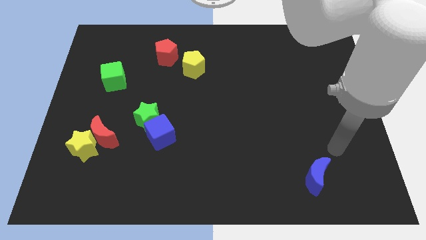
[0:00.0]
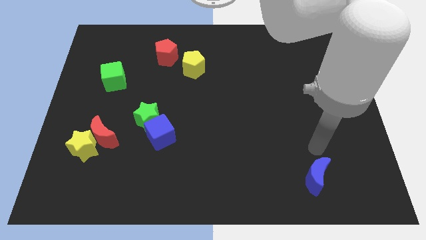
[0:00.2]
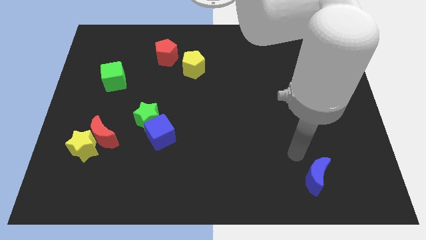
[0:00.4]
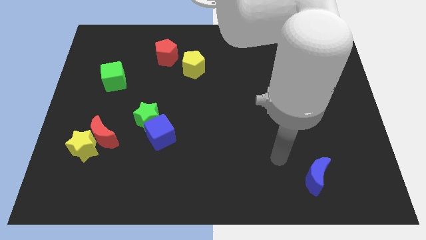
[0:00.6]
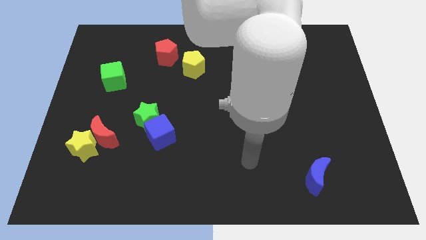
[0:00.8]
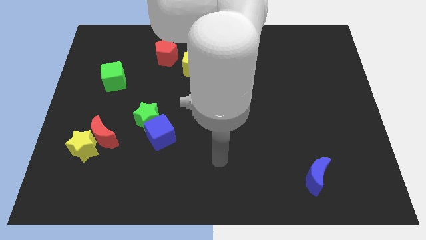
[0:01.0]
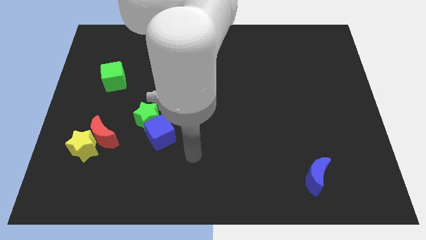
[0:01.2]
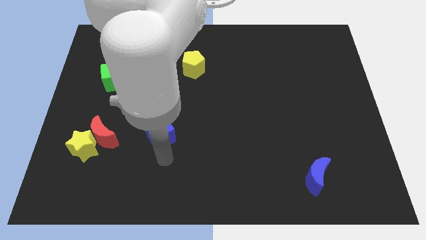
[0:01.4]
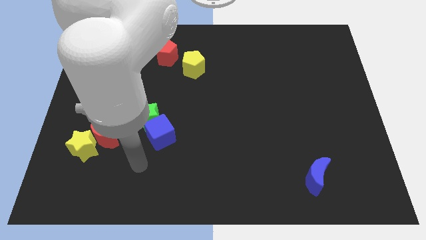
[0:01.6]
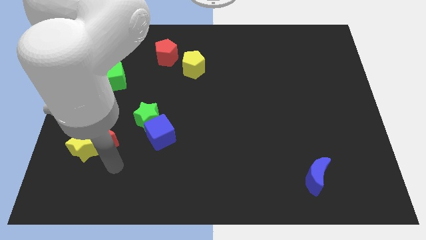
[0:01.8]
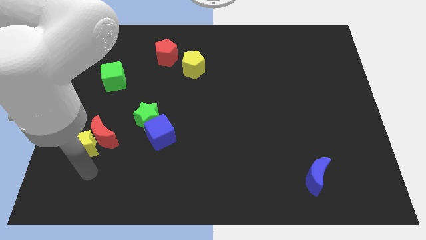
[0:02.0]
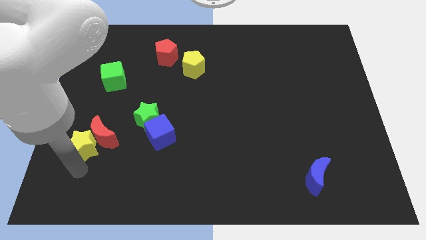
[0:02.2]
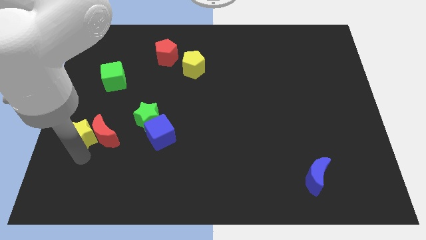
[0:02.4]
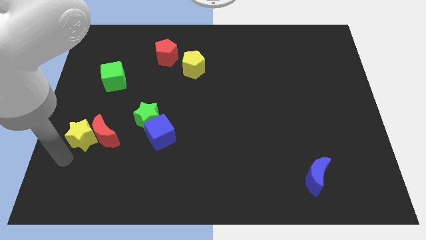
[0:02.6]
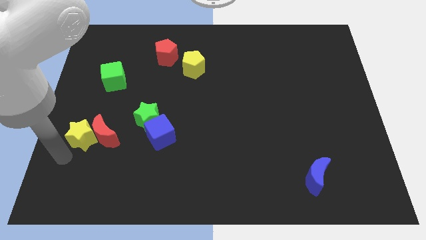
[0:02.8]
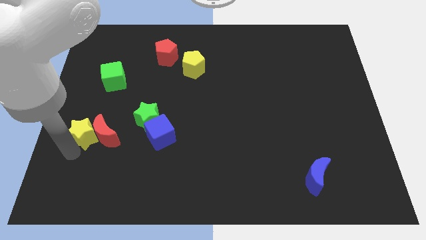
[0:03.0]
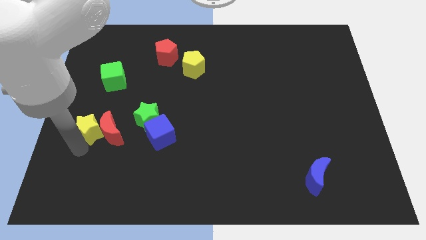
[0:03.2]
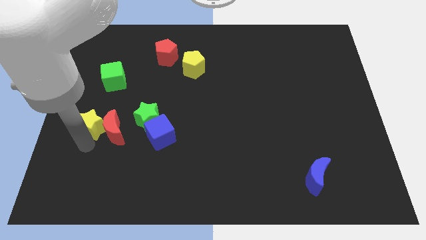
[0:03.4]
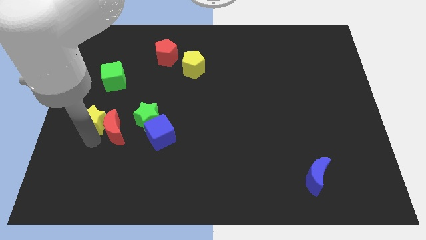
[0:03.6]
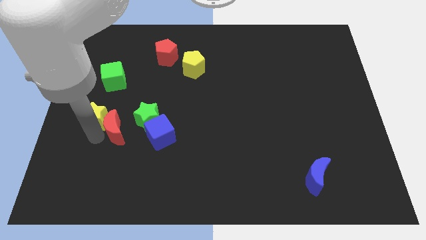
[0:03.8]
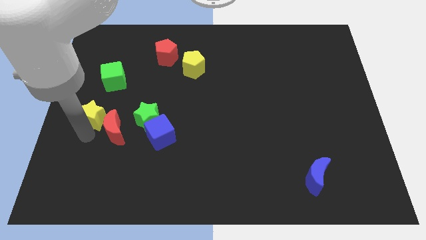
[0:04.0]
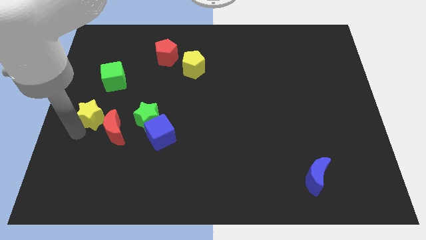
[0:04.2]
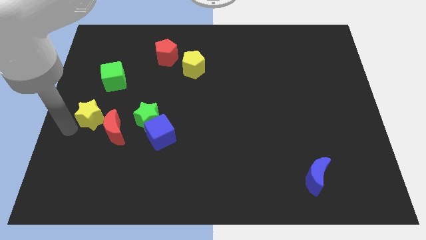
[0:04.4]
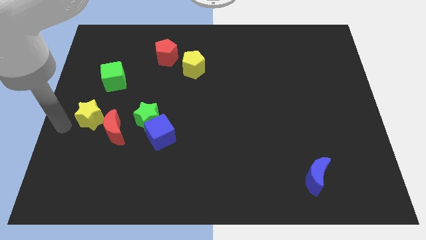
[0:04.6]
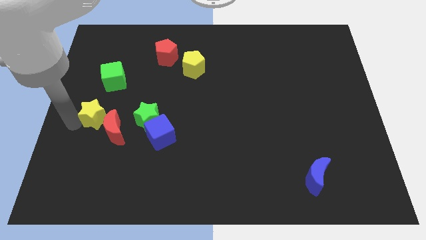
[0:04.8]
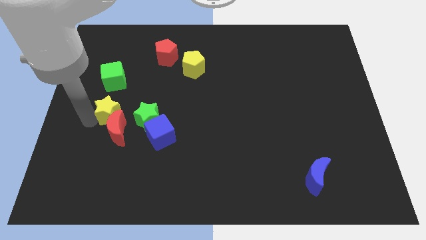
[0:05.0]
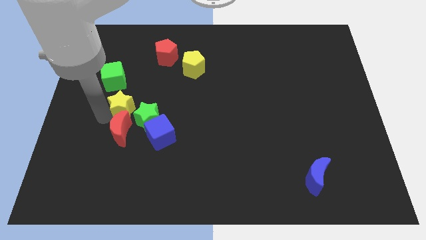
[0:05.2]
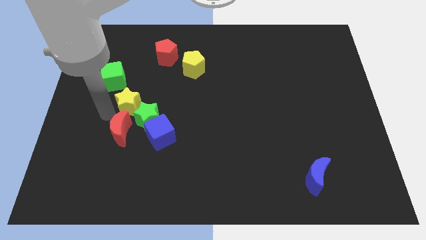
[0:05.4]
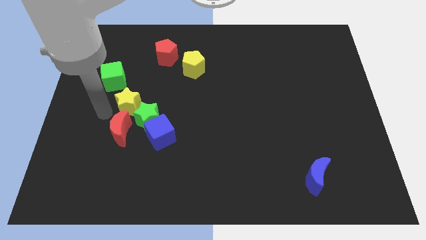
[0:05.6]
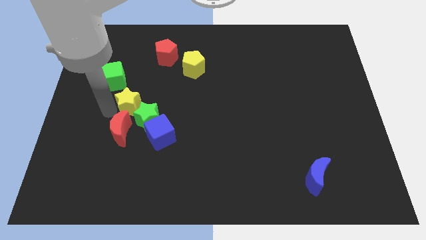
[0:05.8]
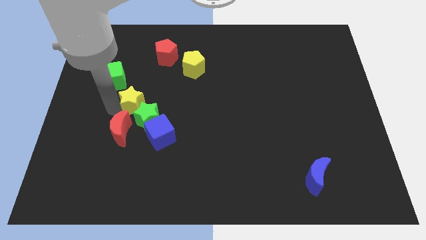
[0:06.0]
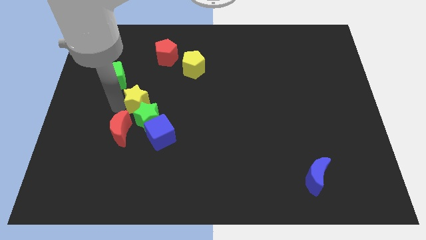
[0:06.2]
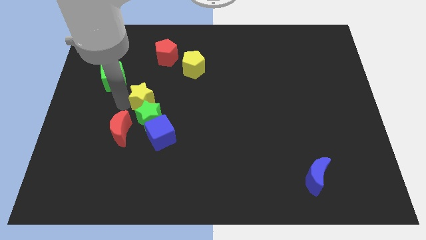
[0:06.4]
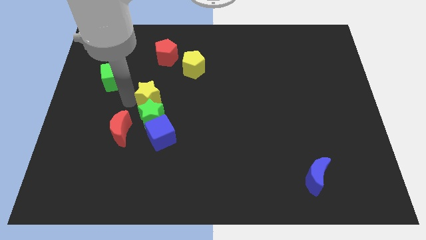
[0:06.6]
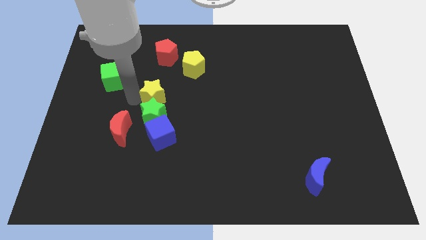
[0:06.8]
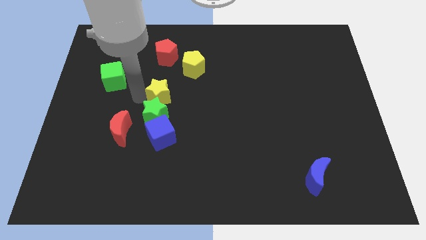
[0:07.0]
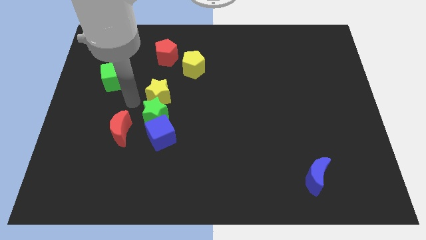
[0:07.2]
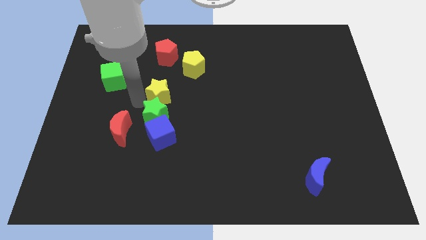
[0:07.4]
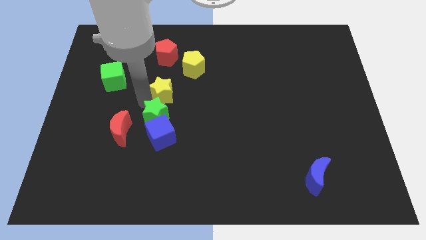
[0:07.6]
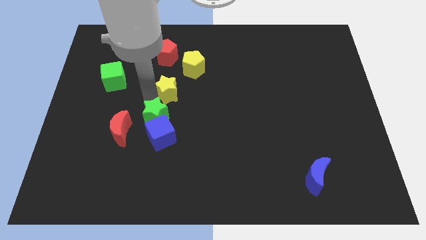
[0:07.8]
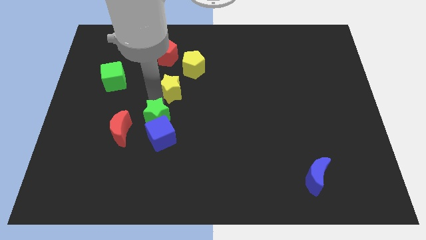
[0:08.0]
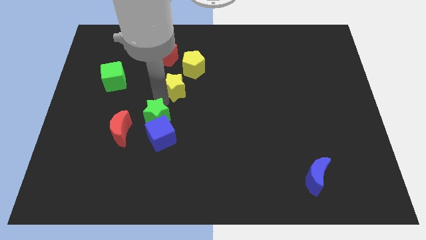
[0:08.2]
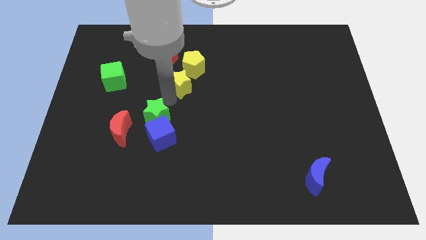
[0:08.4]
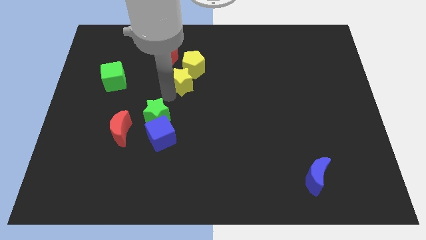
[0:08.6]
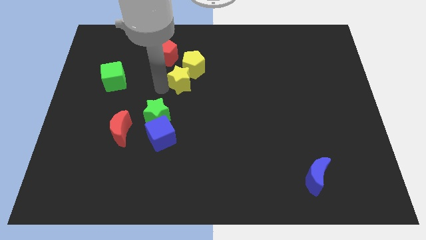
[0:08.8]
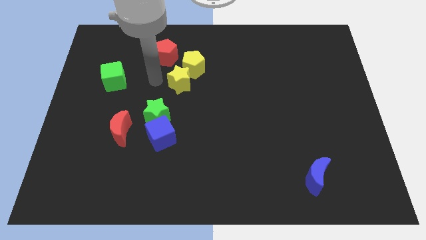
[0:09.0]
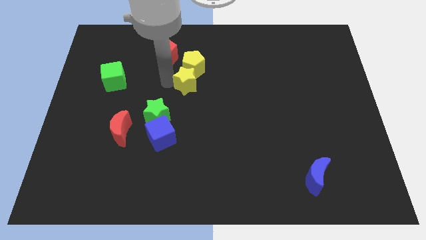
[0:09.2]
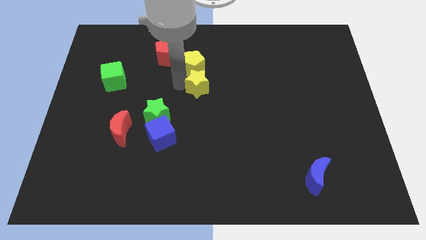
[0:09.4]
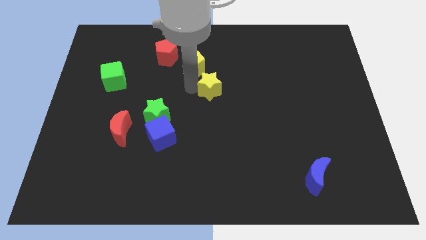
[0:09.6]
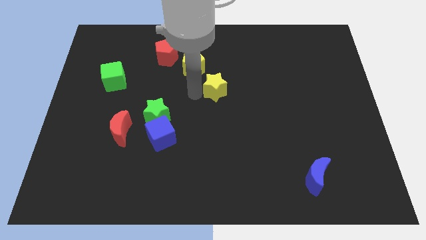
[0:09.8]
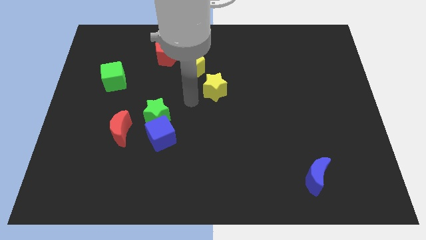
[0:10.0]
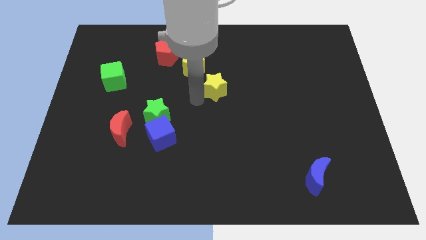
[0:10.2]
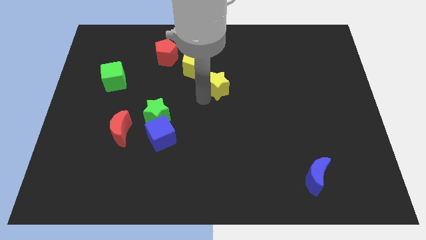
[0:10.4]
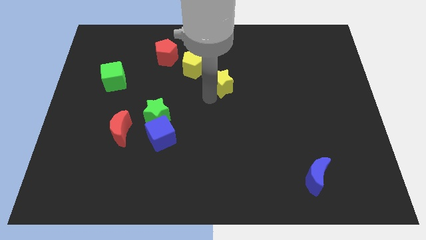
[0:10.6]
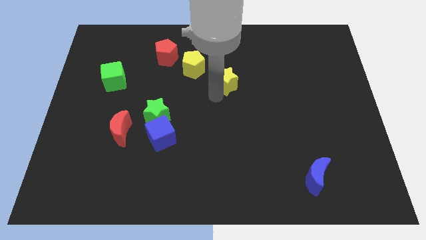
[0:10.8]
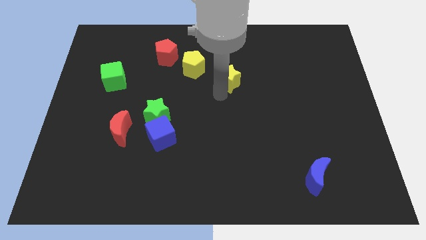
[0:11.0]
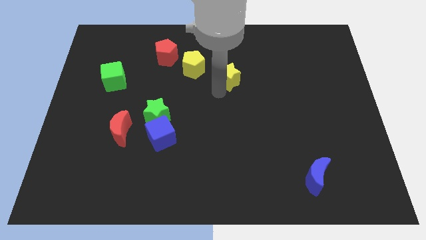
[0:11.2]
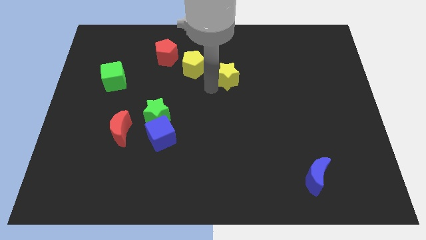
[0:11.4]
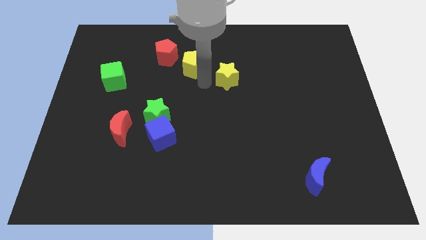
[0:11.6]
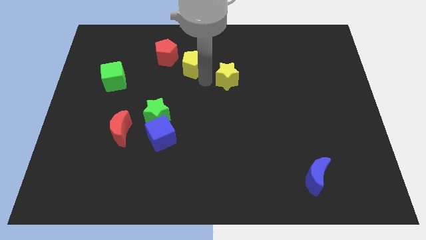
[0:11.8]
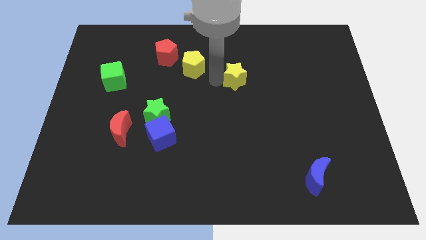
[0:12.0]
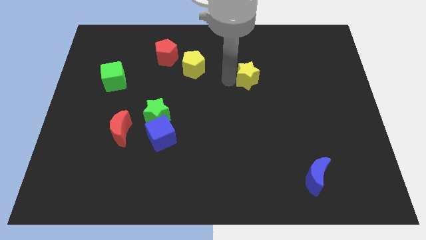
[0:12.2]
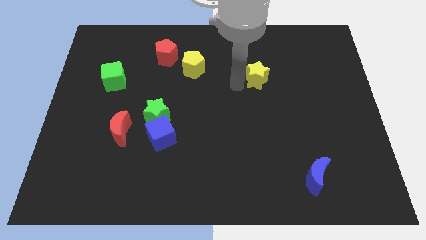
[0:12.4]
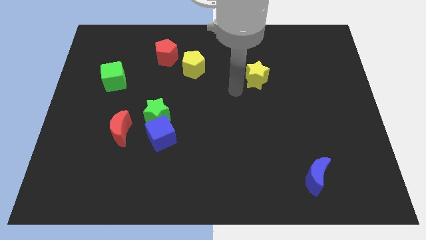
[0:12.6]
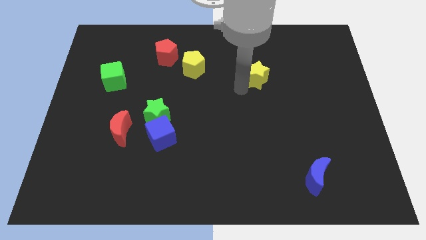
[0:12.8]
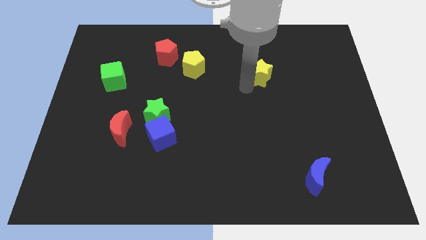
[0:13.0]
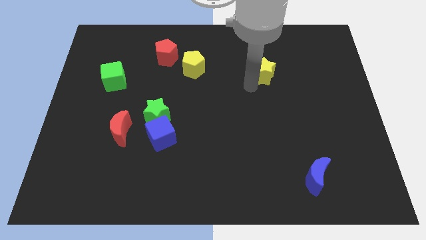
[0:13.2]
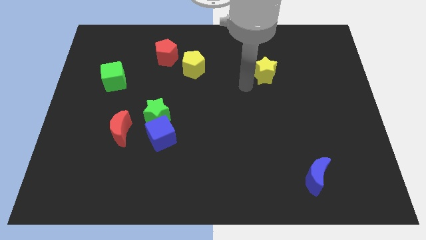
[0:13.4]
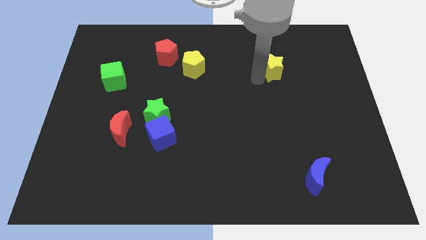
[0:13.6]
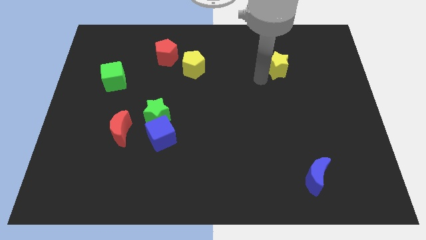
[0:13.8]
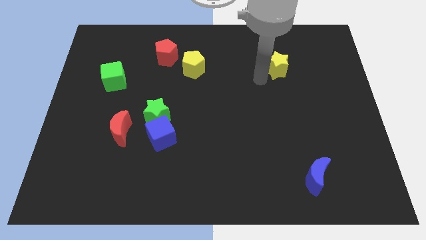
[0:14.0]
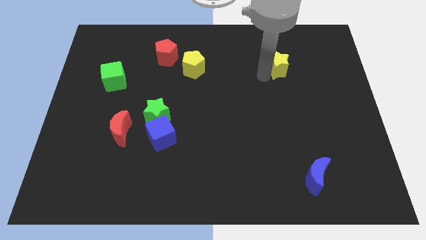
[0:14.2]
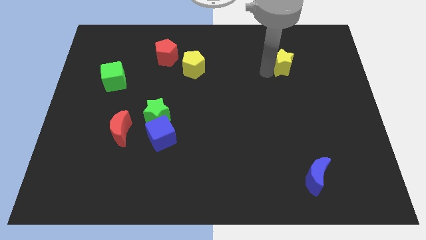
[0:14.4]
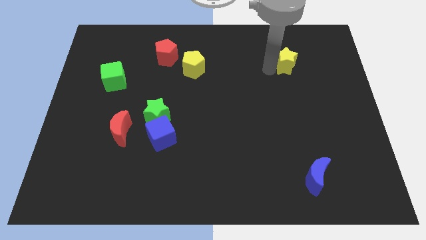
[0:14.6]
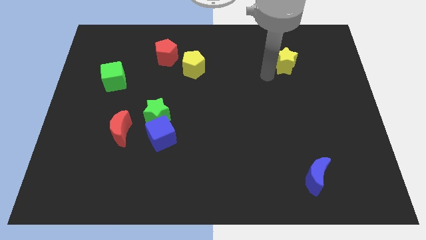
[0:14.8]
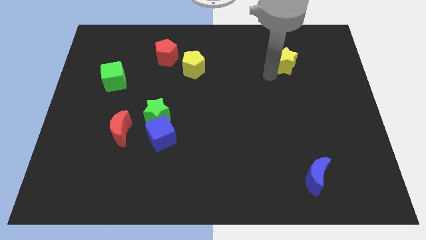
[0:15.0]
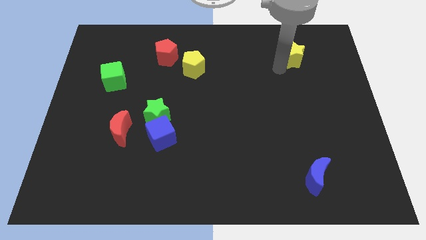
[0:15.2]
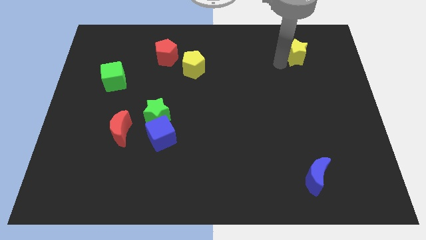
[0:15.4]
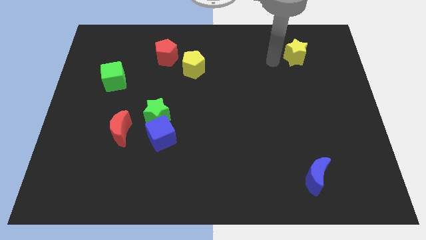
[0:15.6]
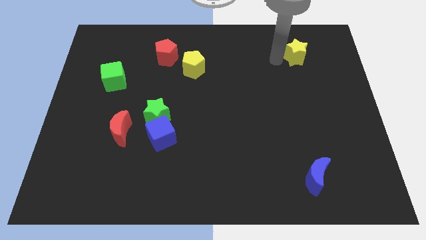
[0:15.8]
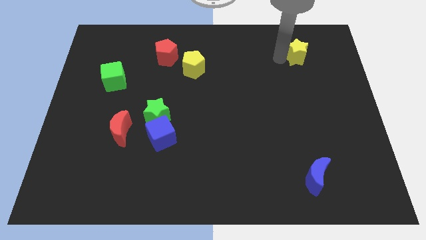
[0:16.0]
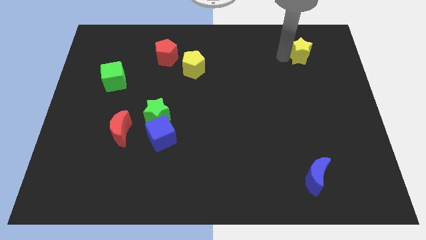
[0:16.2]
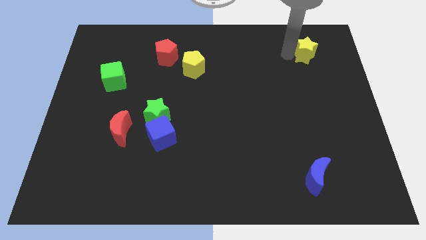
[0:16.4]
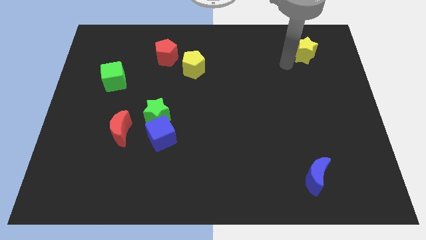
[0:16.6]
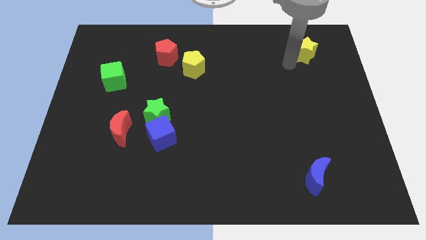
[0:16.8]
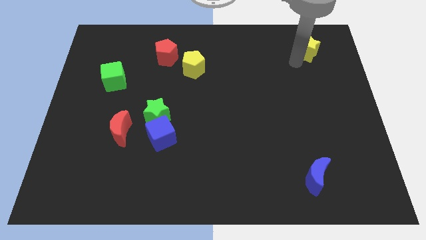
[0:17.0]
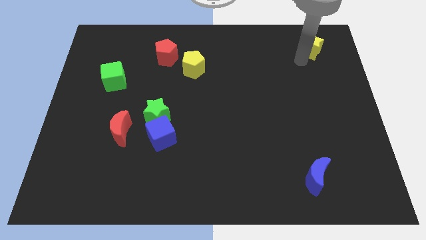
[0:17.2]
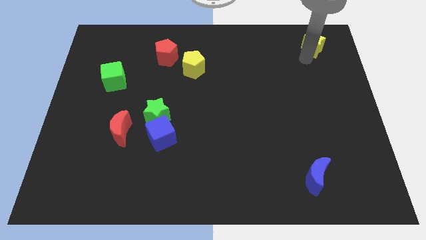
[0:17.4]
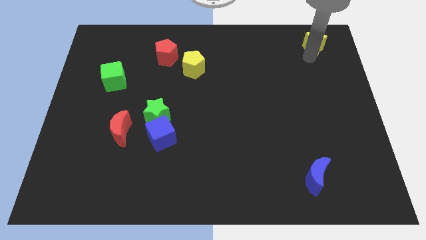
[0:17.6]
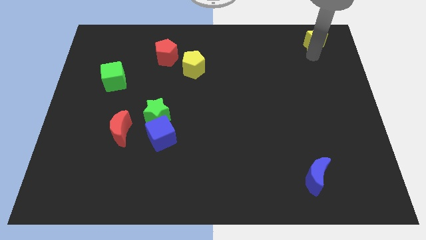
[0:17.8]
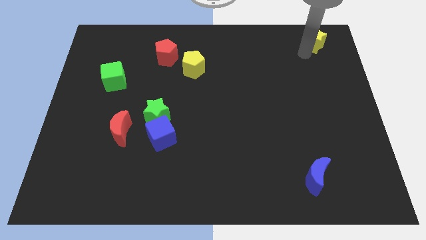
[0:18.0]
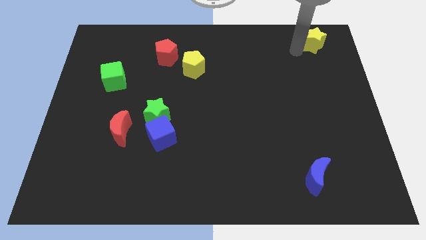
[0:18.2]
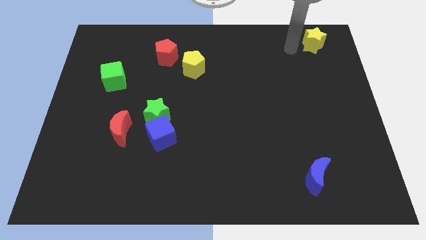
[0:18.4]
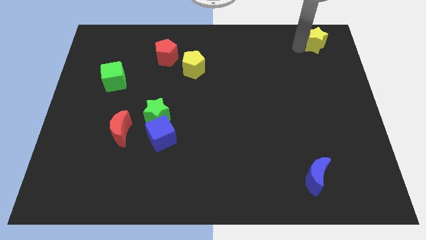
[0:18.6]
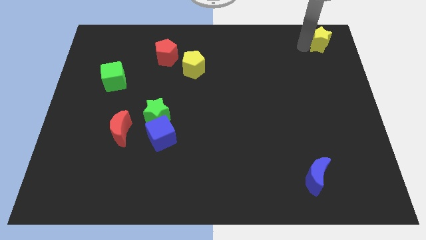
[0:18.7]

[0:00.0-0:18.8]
put the yellow star to the top right corner
